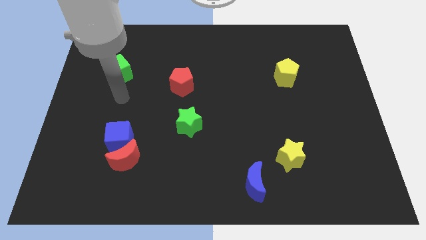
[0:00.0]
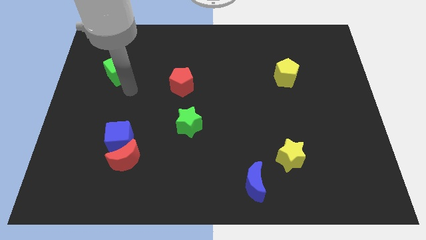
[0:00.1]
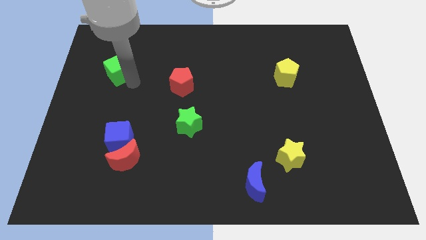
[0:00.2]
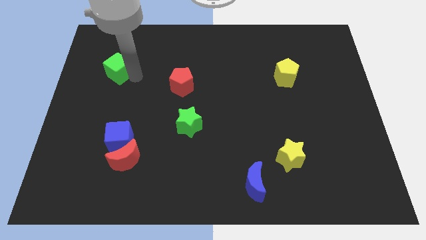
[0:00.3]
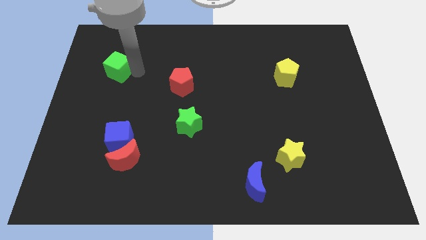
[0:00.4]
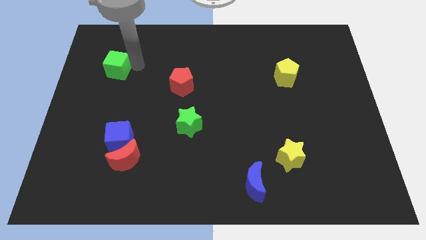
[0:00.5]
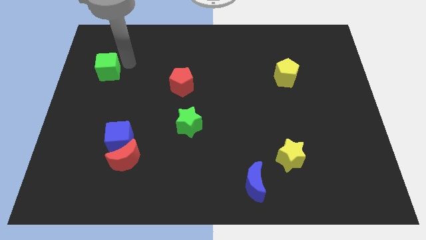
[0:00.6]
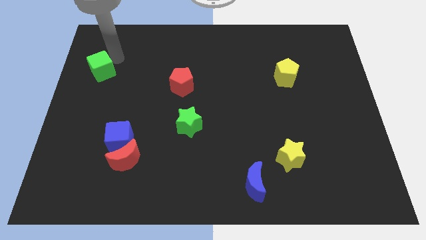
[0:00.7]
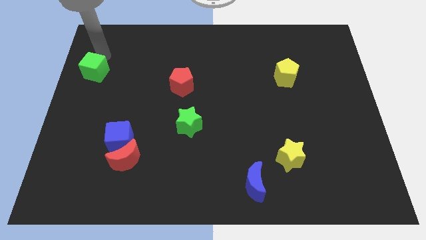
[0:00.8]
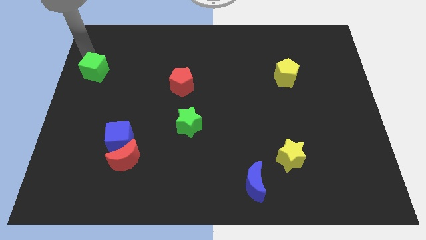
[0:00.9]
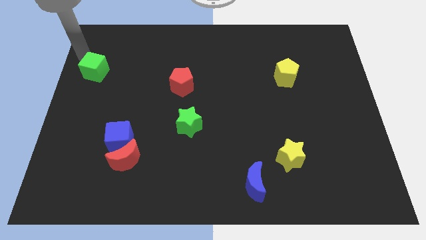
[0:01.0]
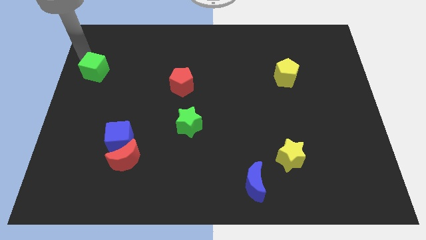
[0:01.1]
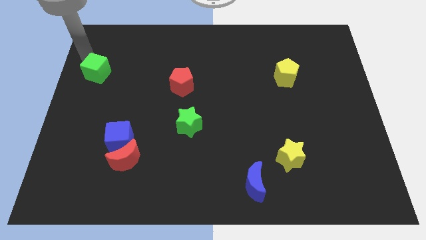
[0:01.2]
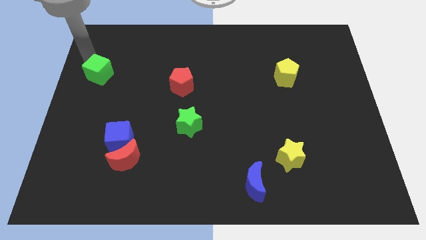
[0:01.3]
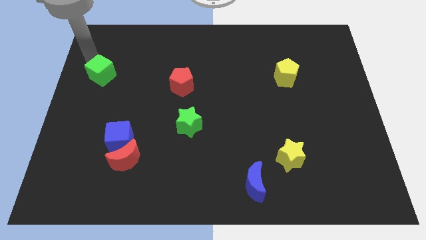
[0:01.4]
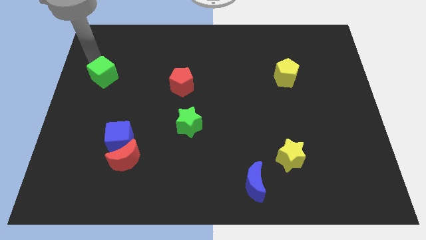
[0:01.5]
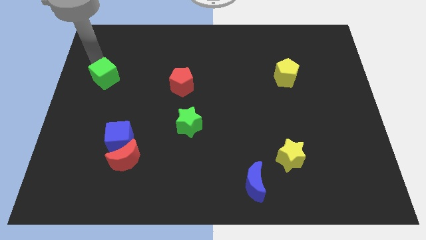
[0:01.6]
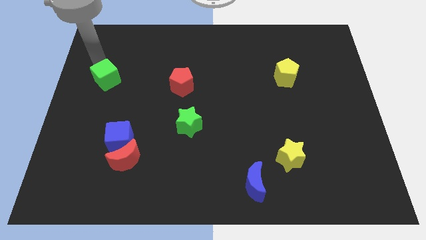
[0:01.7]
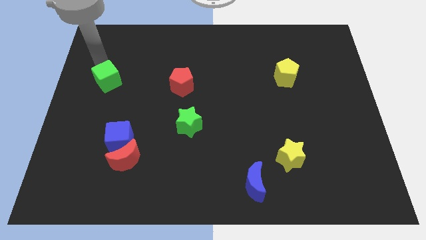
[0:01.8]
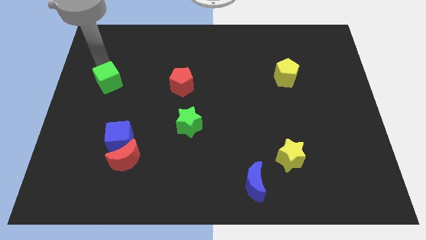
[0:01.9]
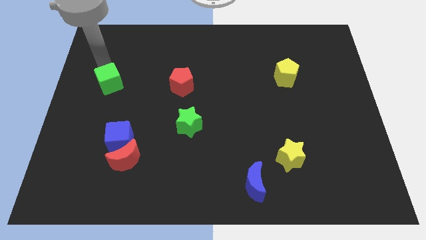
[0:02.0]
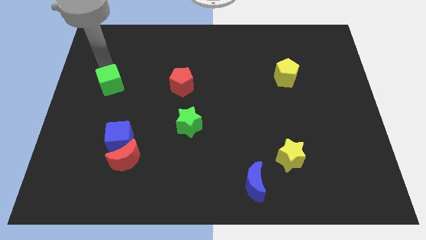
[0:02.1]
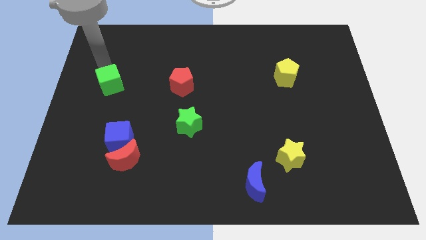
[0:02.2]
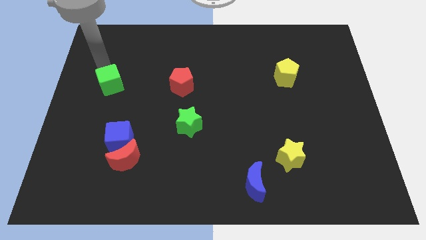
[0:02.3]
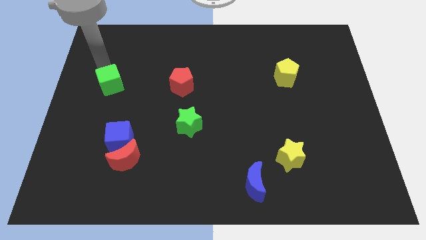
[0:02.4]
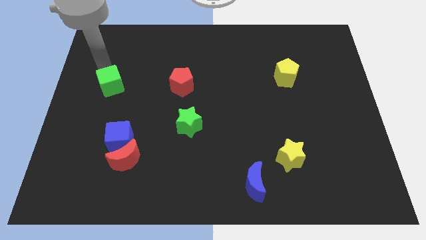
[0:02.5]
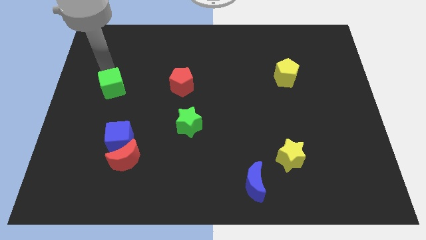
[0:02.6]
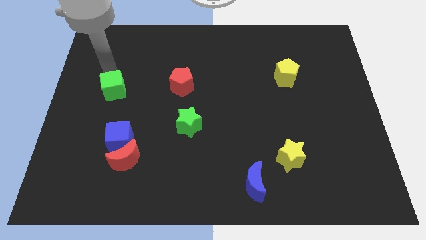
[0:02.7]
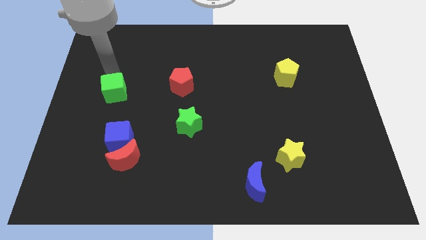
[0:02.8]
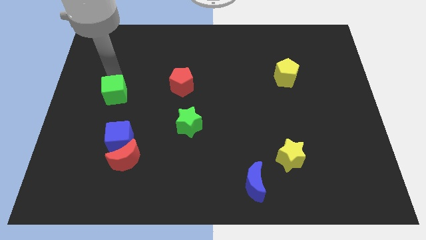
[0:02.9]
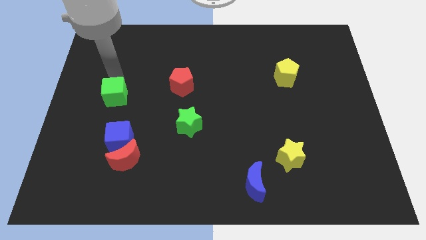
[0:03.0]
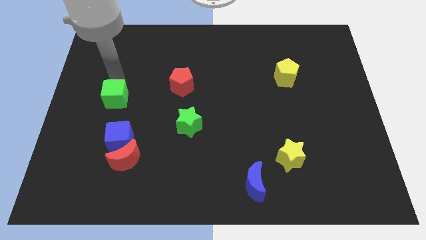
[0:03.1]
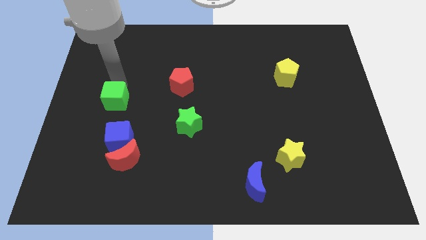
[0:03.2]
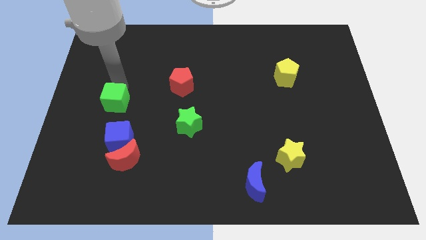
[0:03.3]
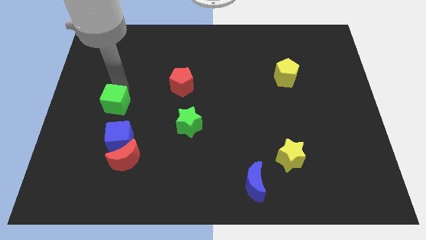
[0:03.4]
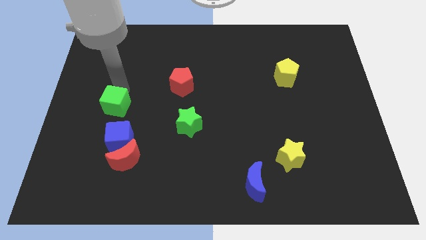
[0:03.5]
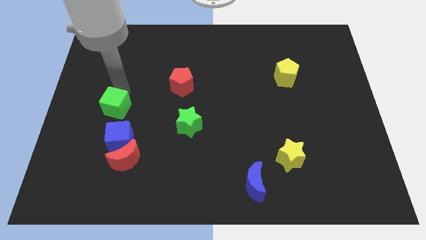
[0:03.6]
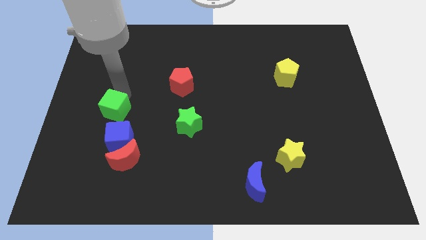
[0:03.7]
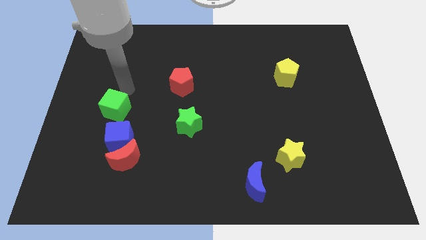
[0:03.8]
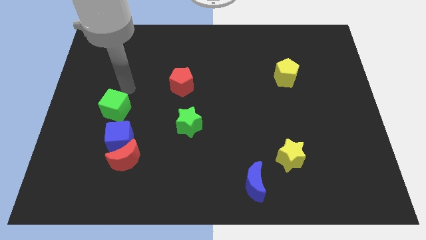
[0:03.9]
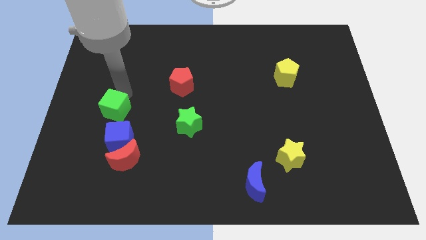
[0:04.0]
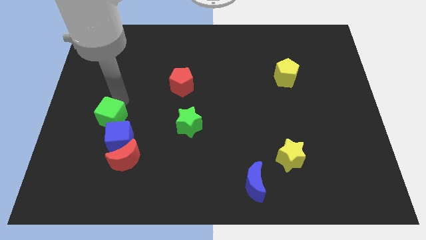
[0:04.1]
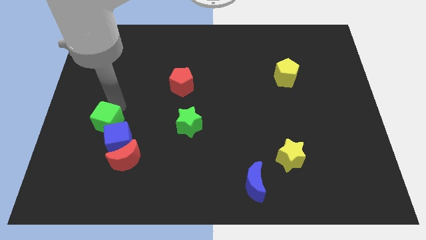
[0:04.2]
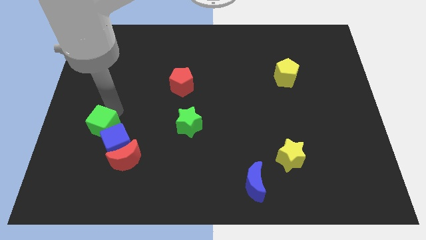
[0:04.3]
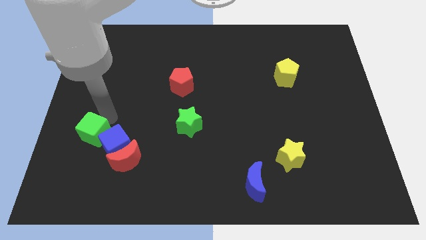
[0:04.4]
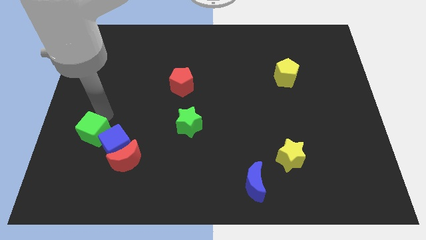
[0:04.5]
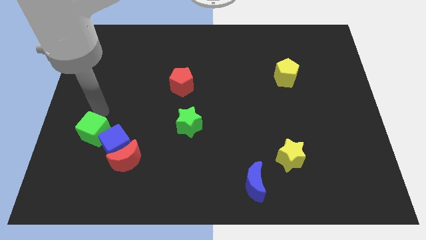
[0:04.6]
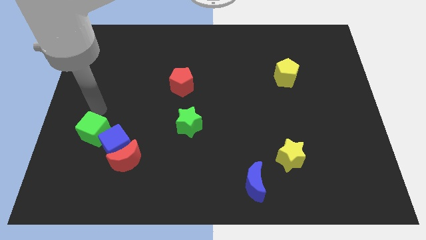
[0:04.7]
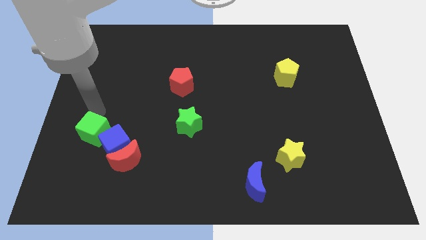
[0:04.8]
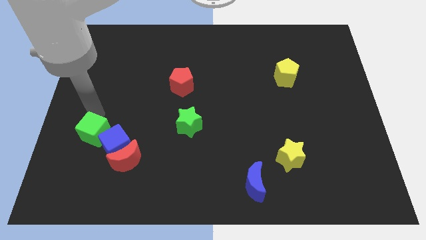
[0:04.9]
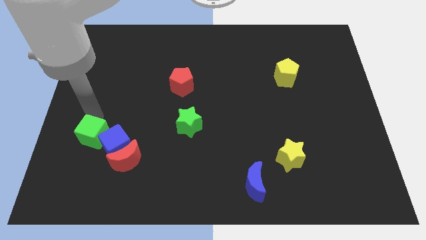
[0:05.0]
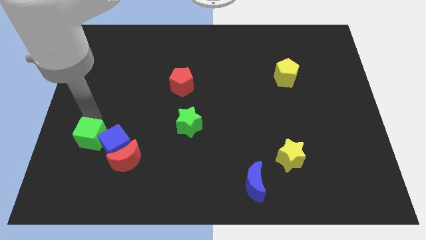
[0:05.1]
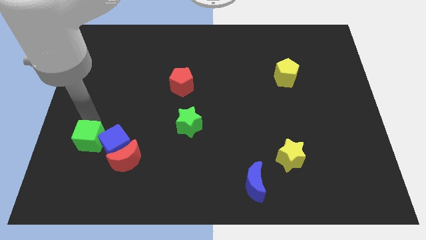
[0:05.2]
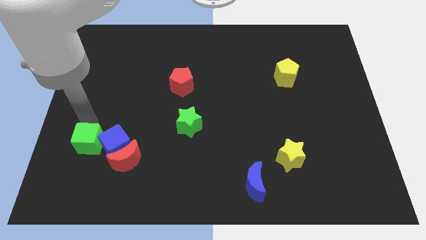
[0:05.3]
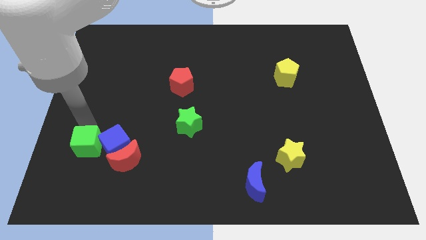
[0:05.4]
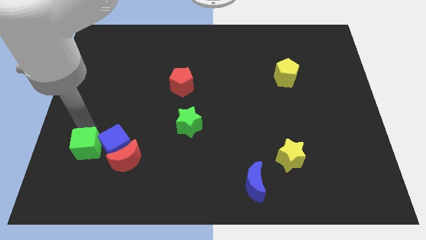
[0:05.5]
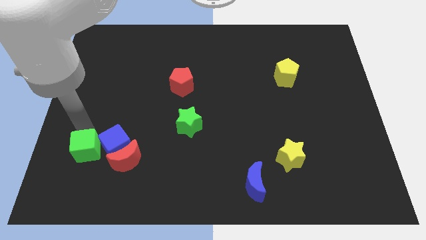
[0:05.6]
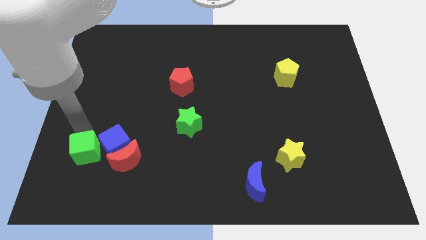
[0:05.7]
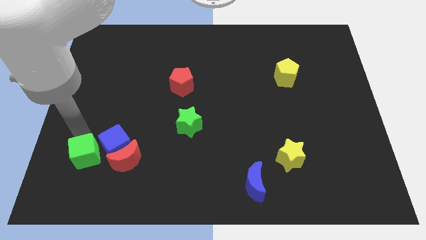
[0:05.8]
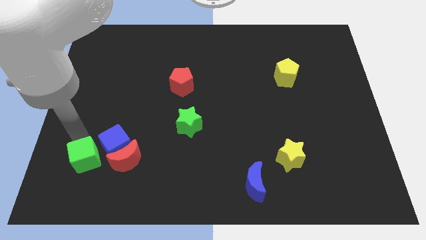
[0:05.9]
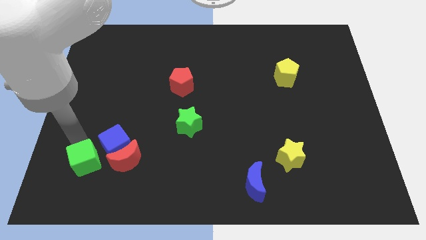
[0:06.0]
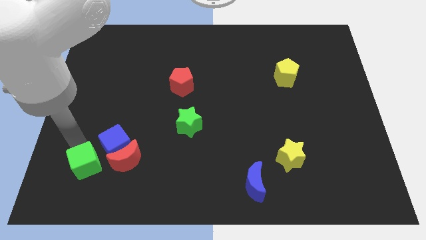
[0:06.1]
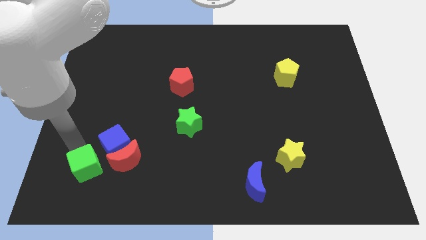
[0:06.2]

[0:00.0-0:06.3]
slide the green cube diagonally down and to the left of the red moon

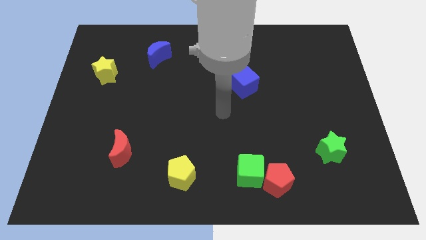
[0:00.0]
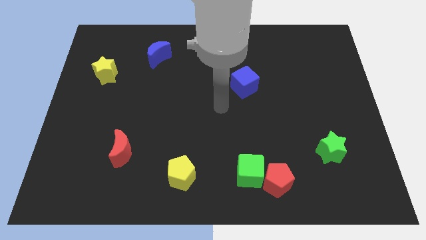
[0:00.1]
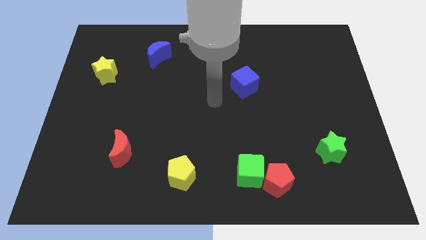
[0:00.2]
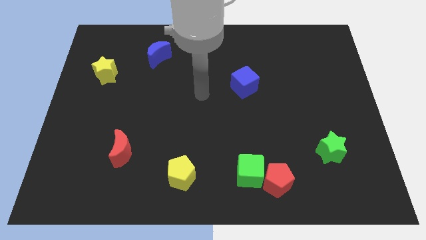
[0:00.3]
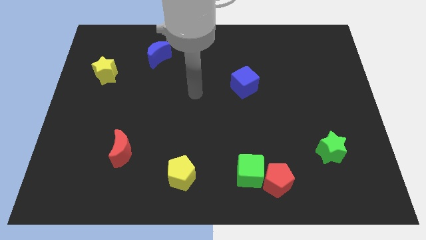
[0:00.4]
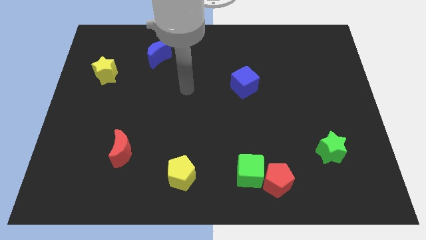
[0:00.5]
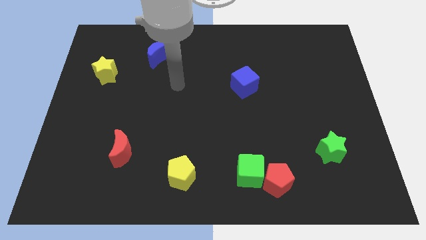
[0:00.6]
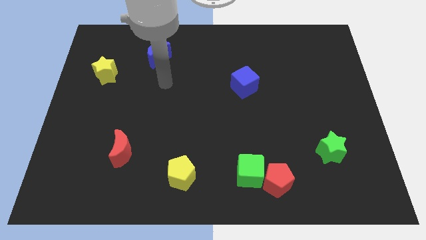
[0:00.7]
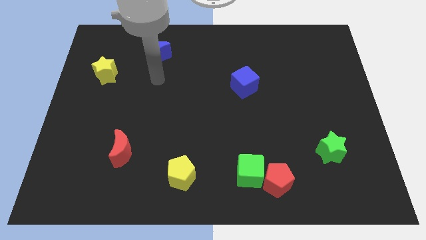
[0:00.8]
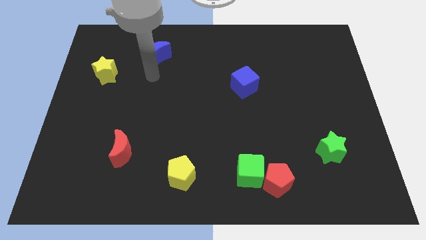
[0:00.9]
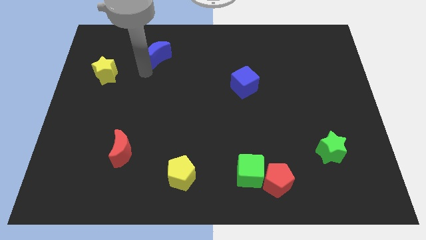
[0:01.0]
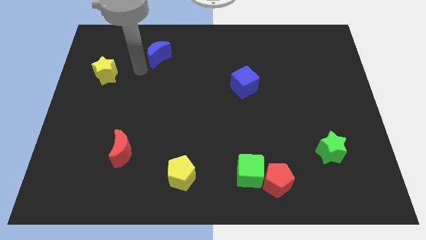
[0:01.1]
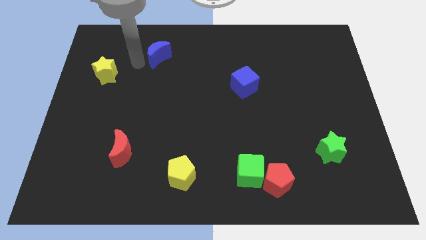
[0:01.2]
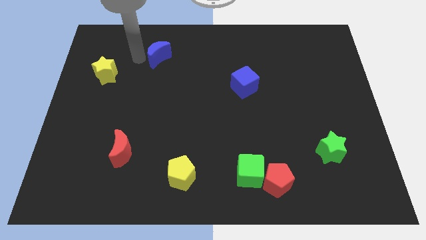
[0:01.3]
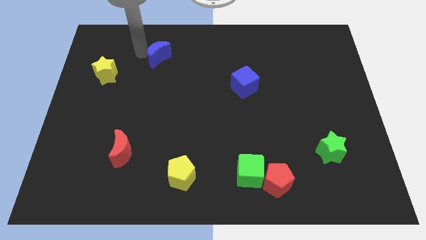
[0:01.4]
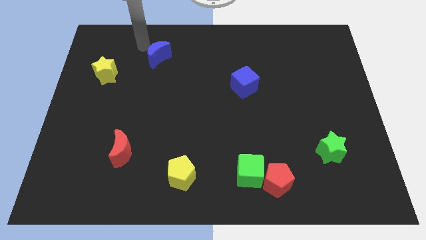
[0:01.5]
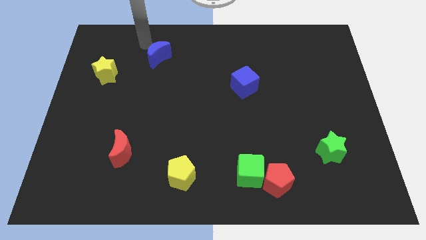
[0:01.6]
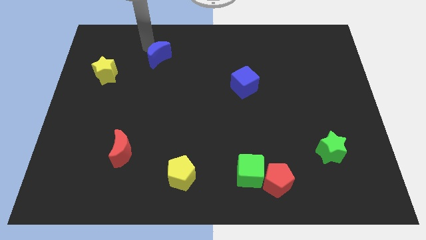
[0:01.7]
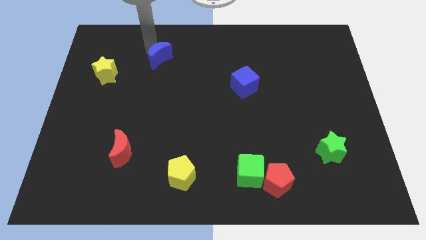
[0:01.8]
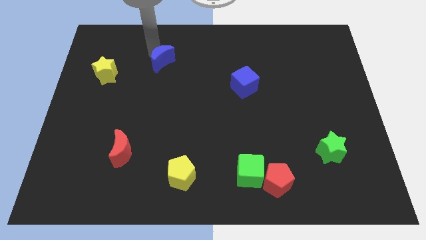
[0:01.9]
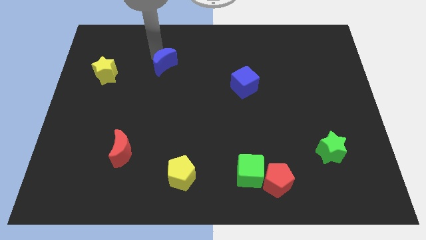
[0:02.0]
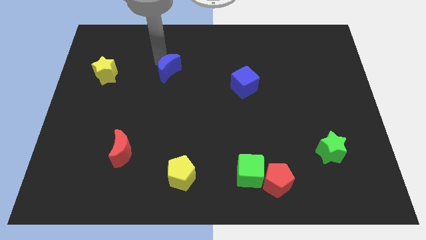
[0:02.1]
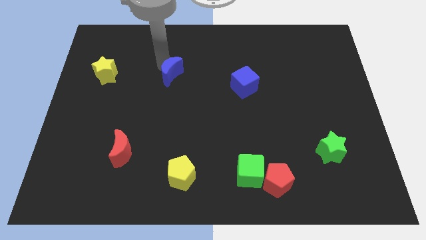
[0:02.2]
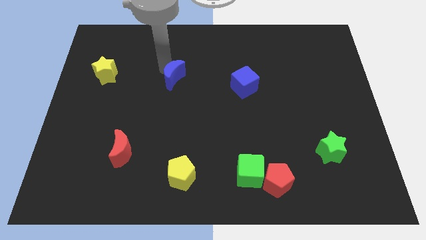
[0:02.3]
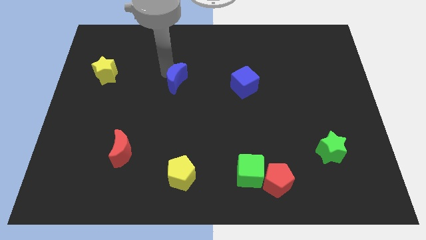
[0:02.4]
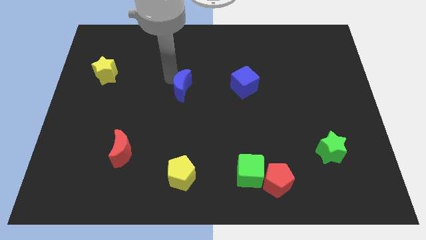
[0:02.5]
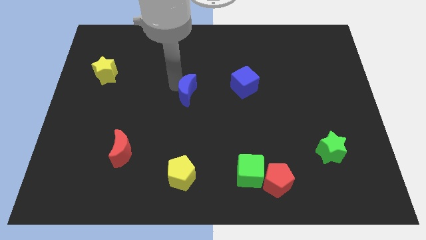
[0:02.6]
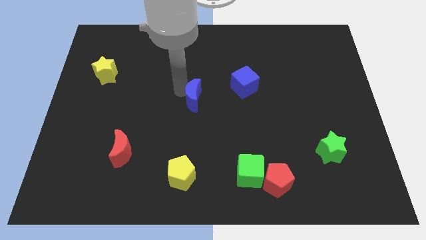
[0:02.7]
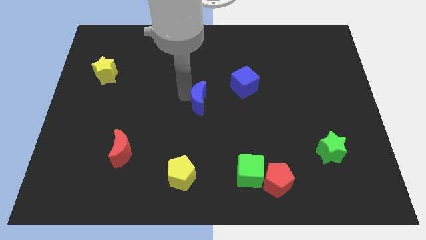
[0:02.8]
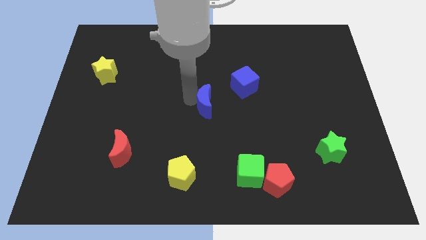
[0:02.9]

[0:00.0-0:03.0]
push the blue moon to the bottom left of the blue cube
